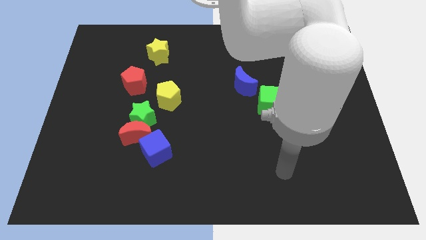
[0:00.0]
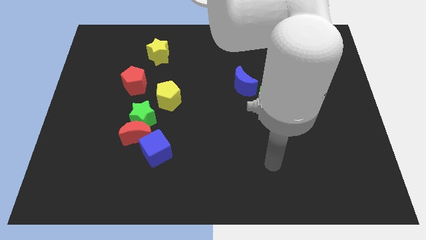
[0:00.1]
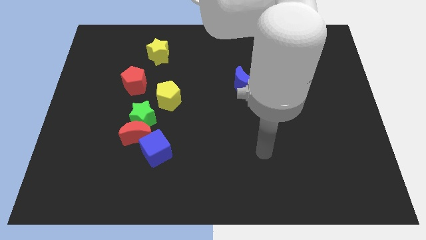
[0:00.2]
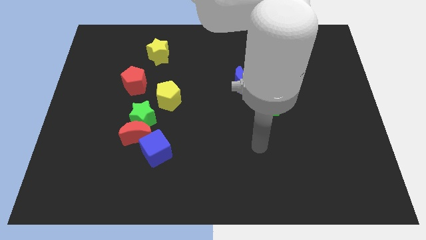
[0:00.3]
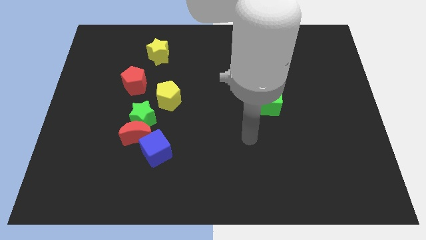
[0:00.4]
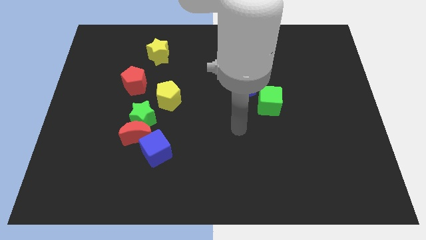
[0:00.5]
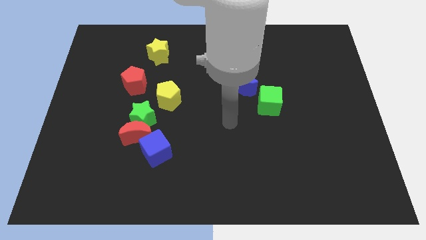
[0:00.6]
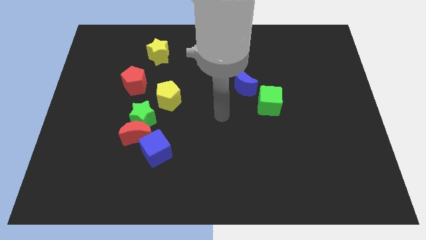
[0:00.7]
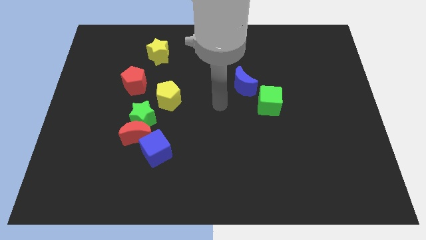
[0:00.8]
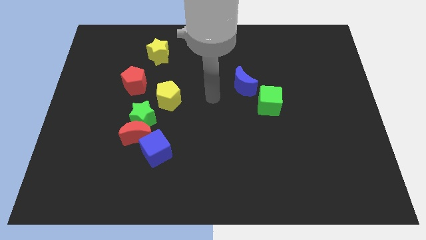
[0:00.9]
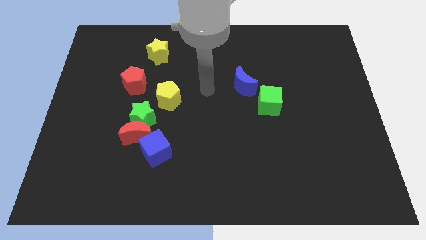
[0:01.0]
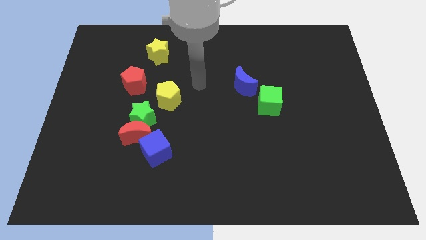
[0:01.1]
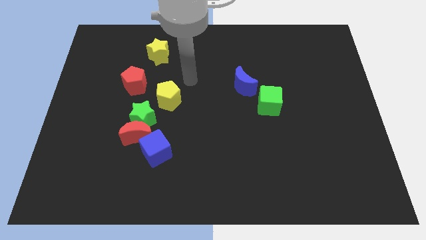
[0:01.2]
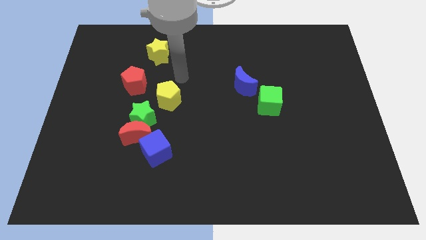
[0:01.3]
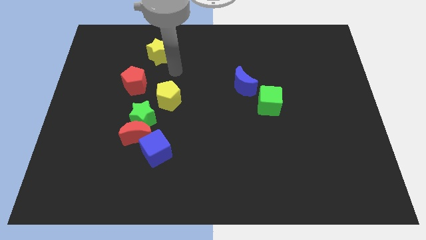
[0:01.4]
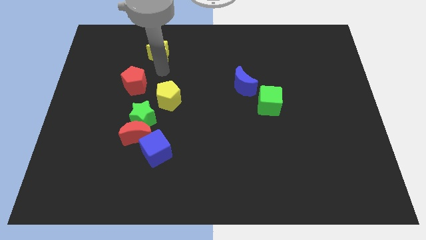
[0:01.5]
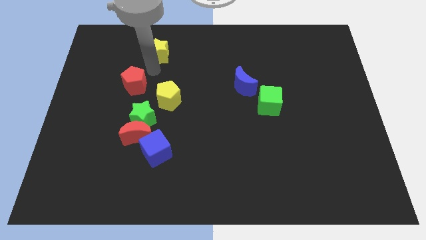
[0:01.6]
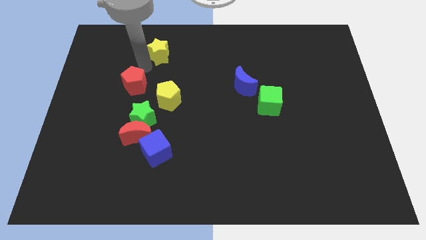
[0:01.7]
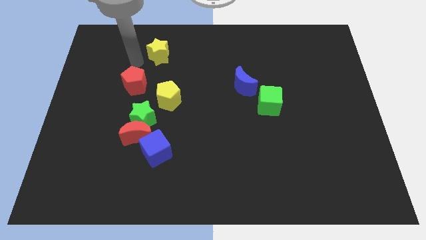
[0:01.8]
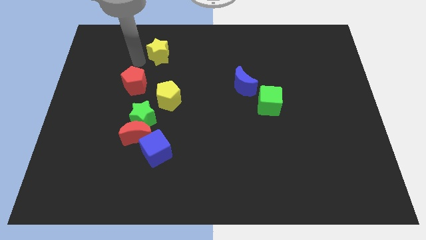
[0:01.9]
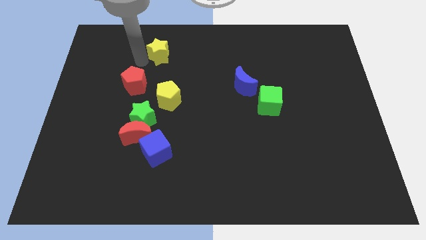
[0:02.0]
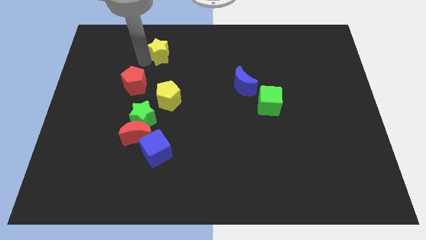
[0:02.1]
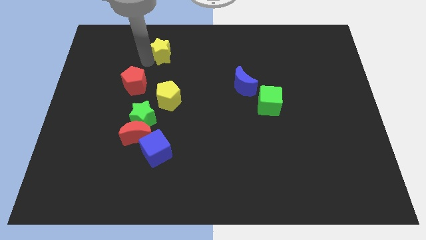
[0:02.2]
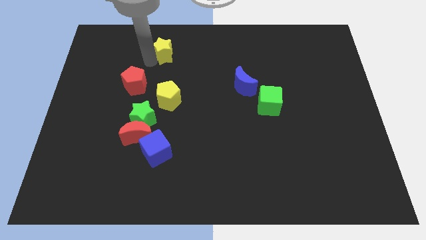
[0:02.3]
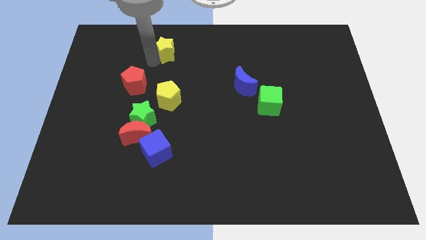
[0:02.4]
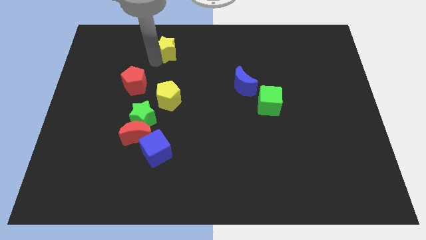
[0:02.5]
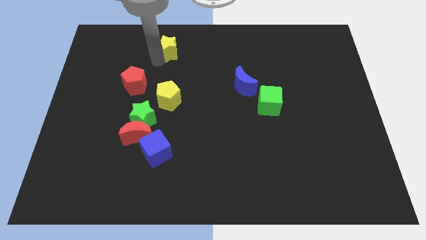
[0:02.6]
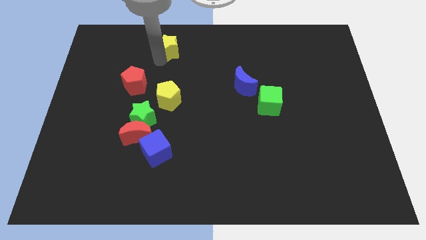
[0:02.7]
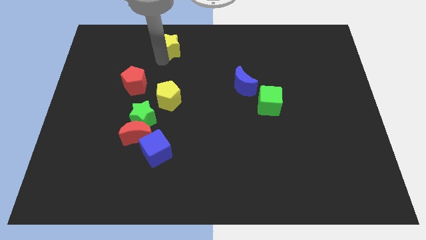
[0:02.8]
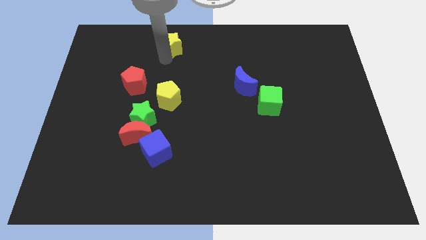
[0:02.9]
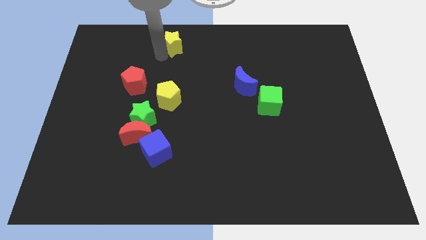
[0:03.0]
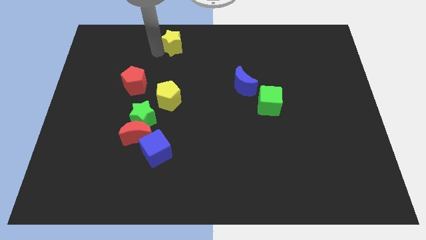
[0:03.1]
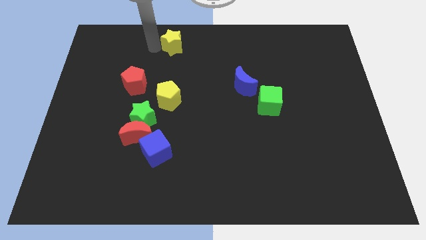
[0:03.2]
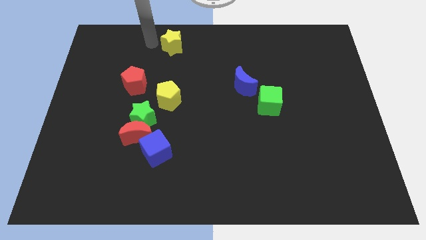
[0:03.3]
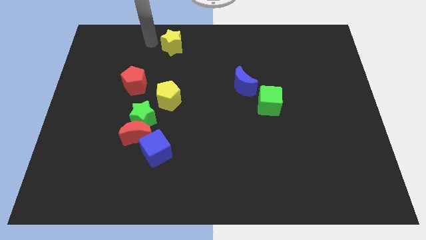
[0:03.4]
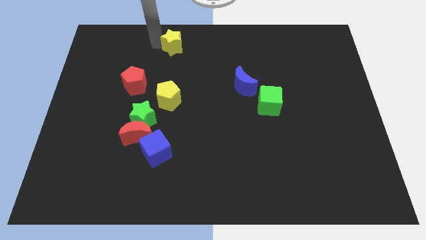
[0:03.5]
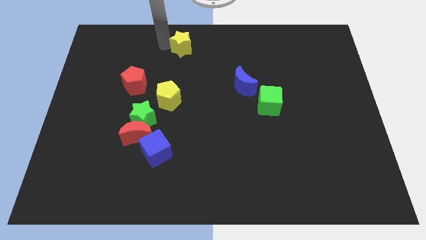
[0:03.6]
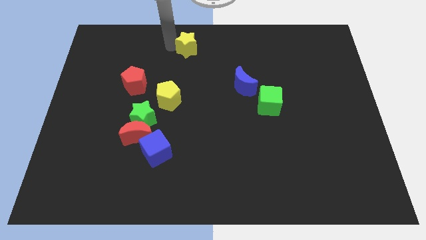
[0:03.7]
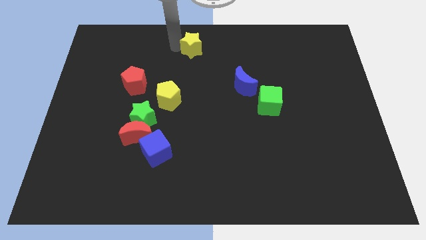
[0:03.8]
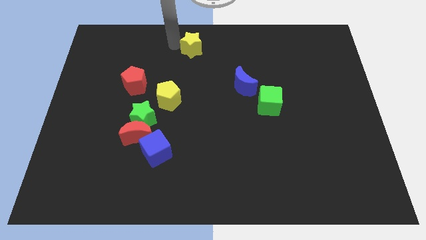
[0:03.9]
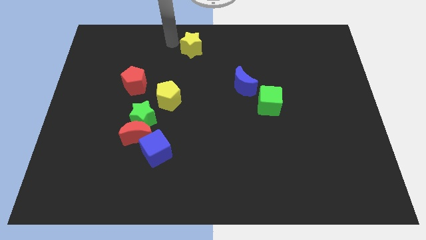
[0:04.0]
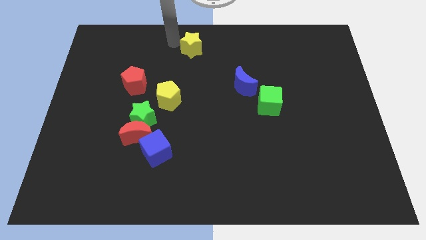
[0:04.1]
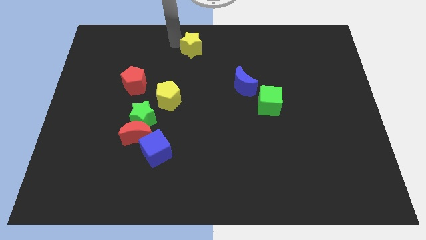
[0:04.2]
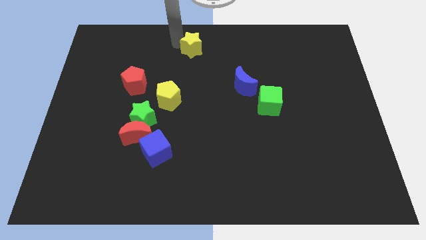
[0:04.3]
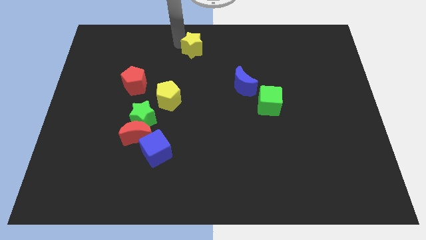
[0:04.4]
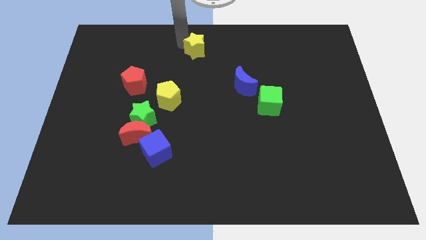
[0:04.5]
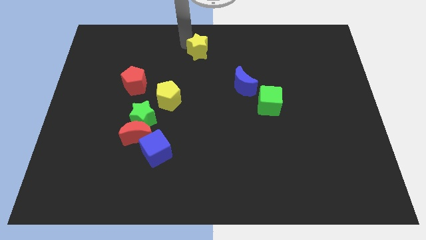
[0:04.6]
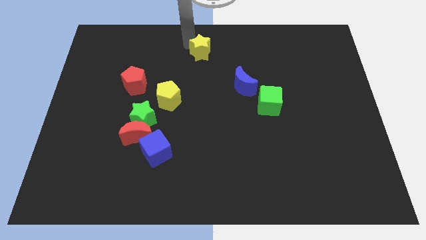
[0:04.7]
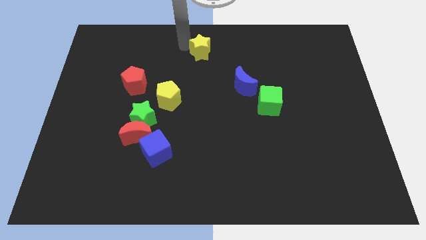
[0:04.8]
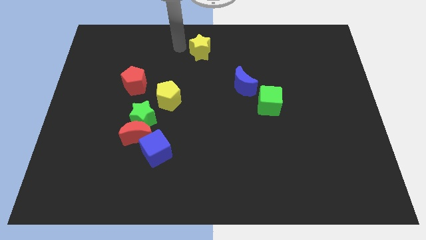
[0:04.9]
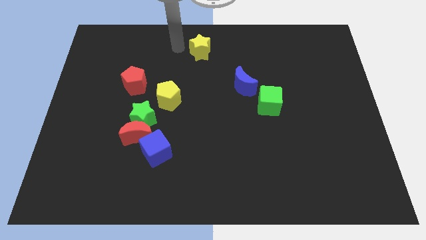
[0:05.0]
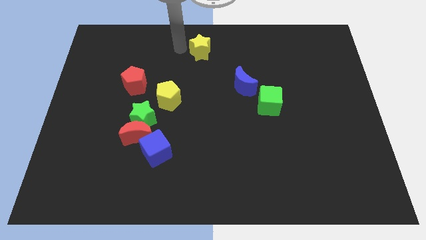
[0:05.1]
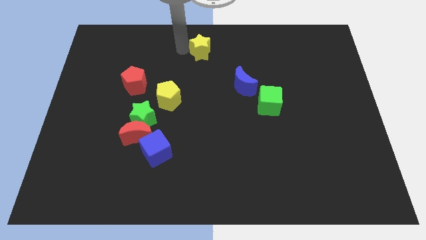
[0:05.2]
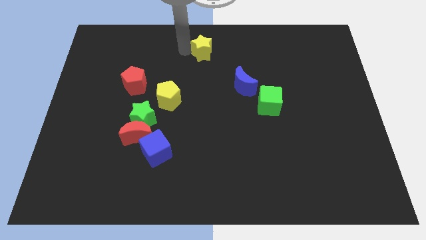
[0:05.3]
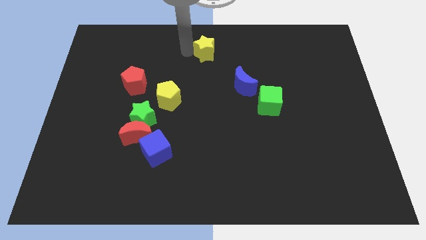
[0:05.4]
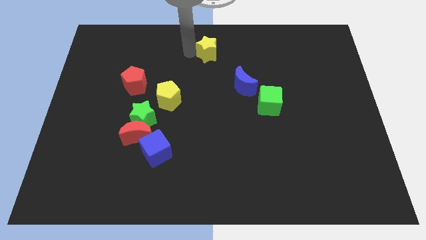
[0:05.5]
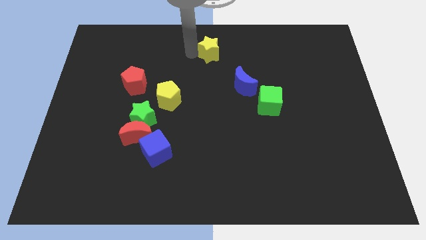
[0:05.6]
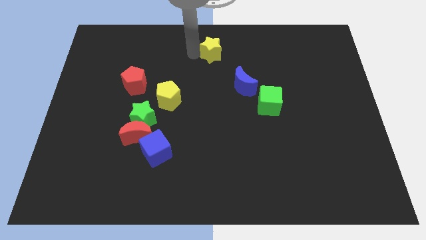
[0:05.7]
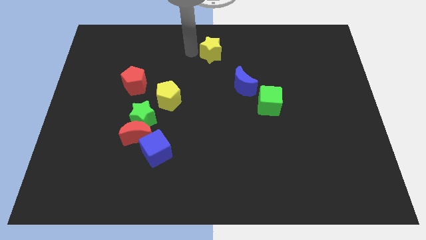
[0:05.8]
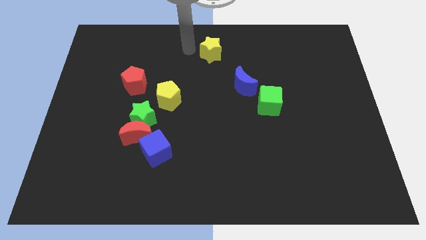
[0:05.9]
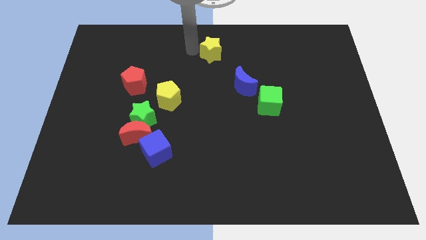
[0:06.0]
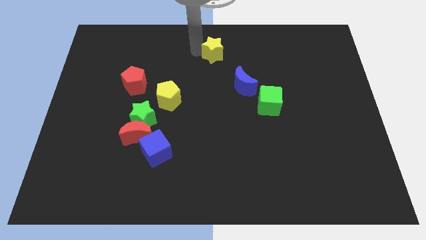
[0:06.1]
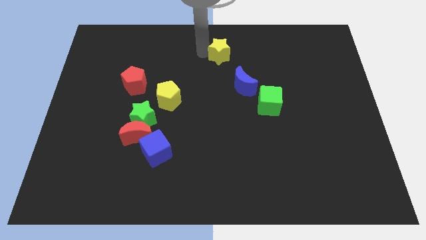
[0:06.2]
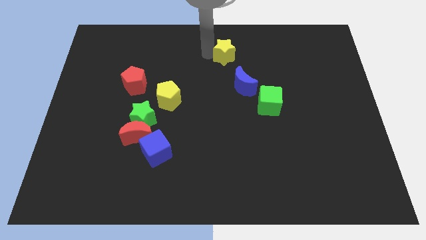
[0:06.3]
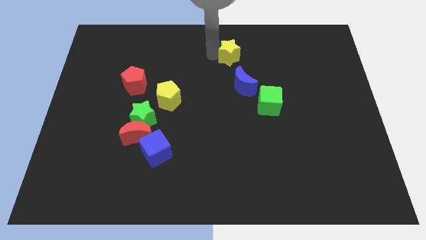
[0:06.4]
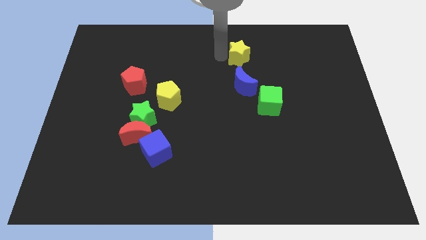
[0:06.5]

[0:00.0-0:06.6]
move the yellow star to the right

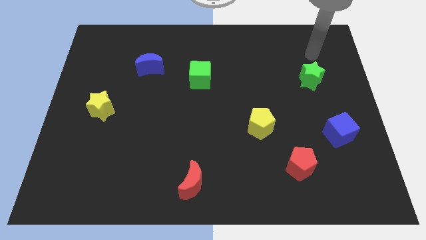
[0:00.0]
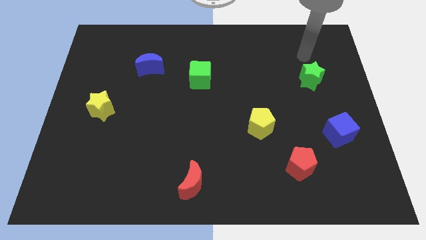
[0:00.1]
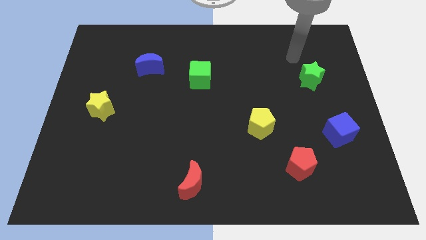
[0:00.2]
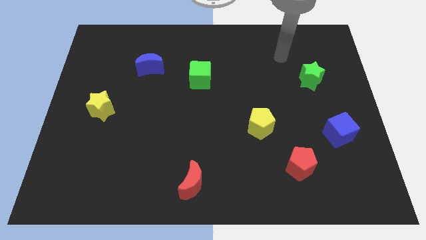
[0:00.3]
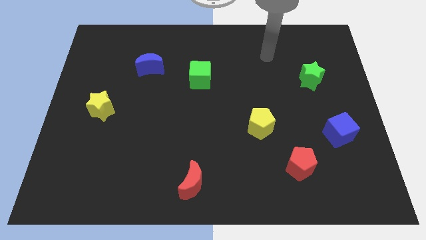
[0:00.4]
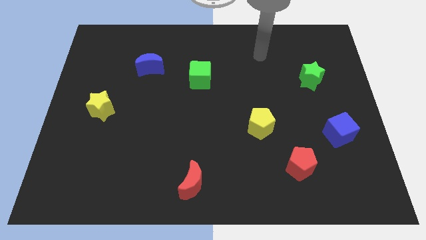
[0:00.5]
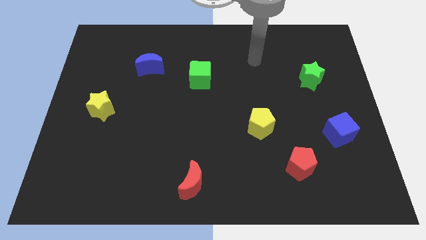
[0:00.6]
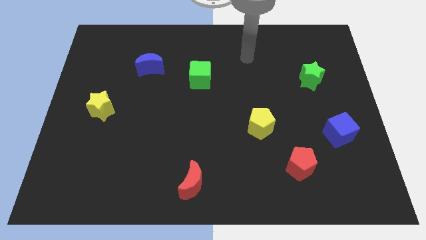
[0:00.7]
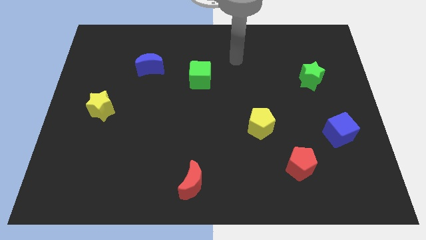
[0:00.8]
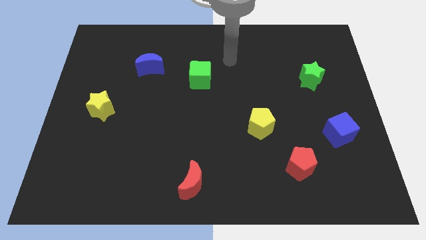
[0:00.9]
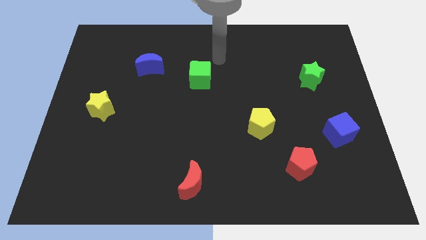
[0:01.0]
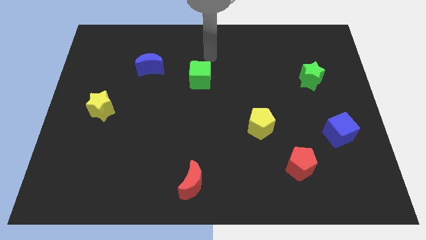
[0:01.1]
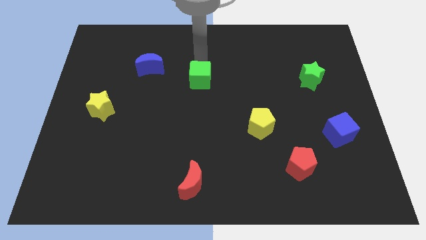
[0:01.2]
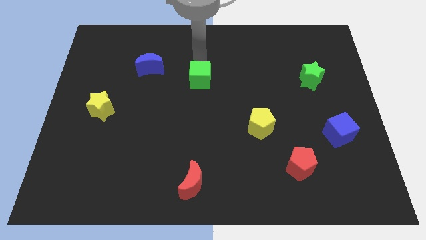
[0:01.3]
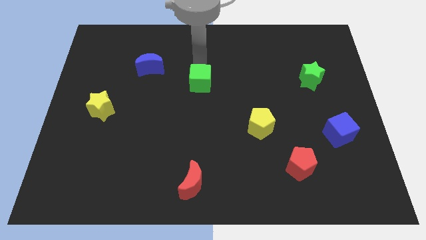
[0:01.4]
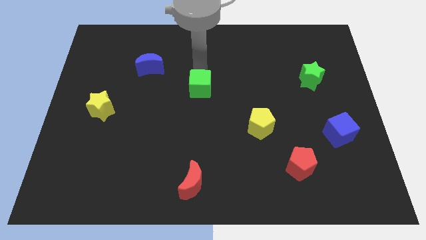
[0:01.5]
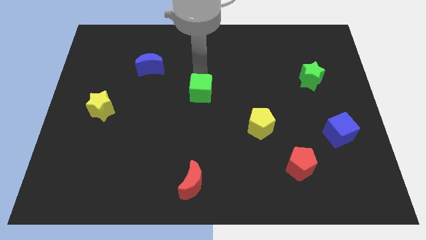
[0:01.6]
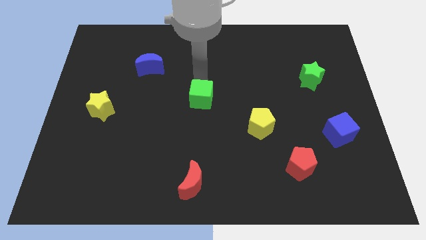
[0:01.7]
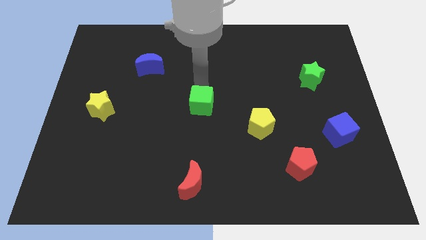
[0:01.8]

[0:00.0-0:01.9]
slightly move the green cube downwards
